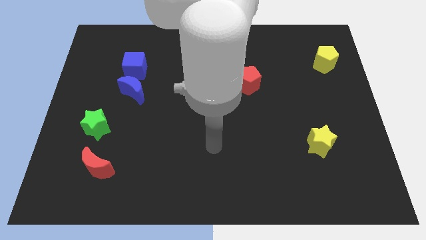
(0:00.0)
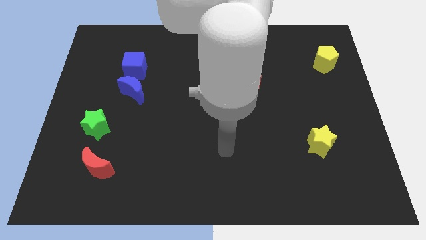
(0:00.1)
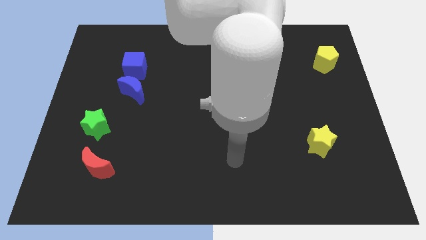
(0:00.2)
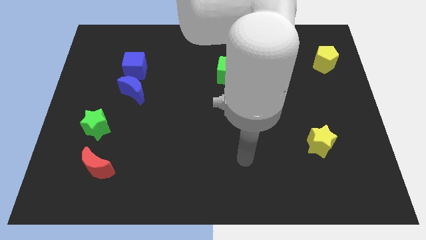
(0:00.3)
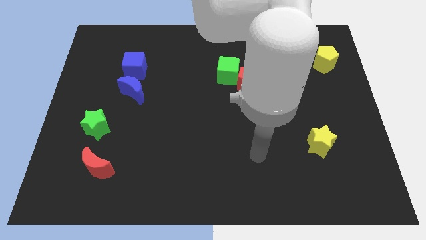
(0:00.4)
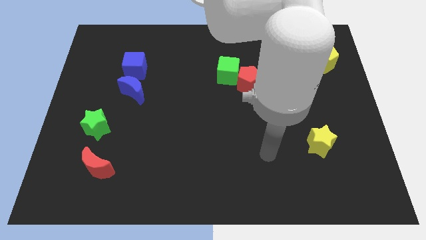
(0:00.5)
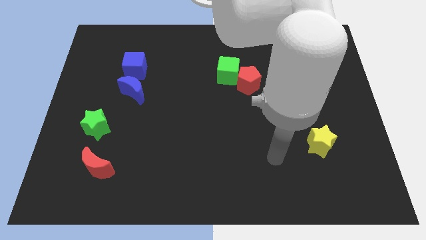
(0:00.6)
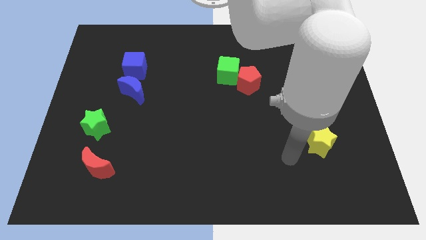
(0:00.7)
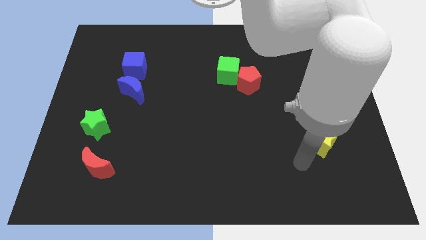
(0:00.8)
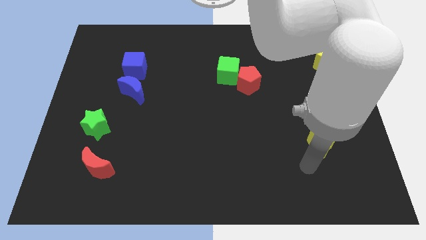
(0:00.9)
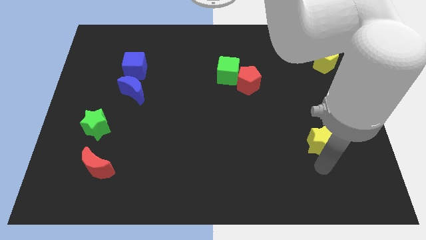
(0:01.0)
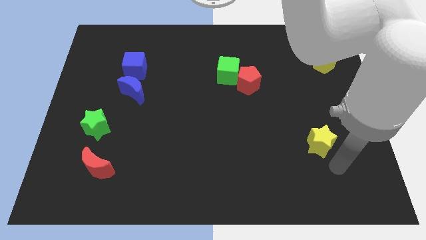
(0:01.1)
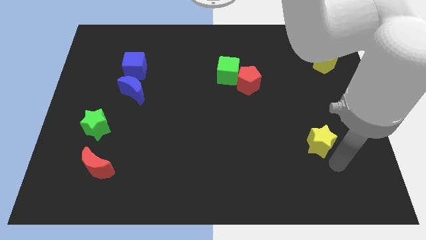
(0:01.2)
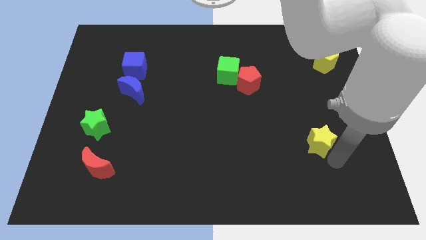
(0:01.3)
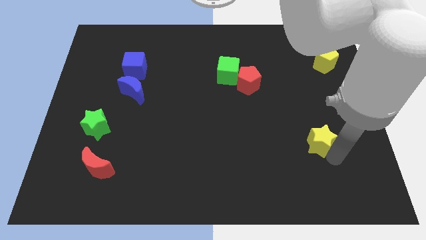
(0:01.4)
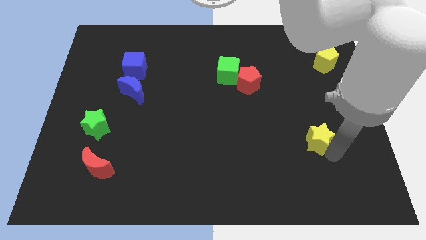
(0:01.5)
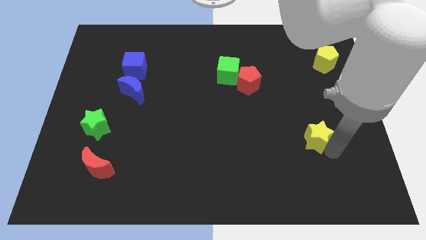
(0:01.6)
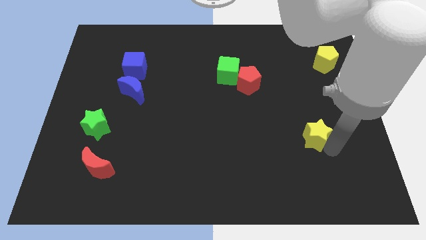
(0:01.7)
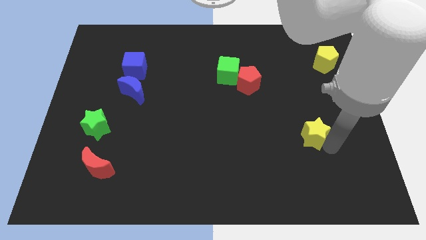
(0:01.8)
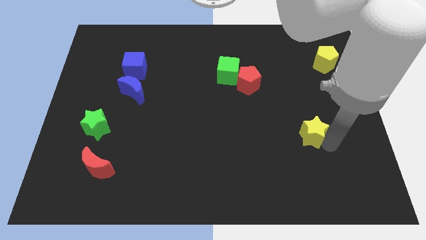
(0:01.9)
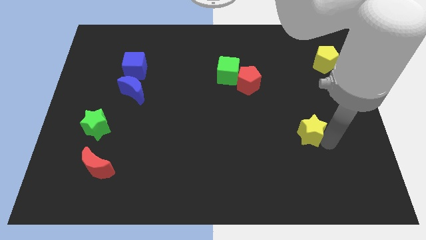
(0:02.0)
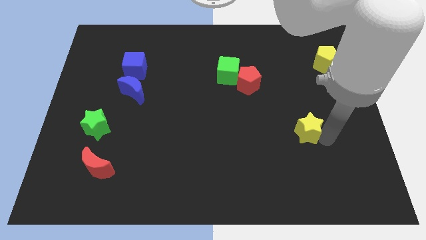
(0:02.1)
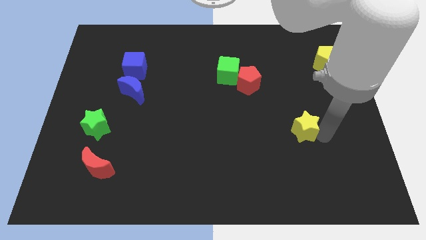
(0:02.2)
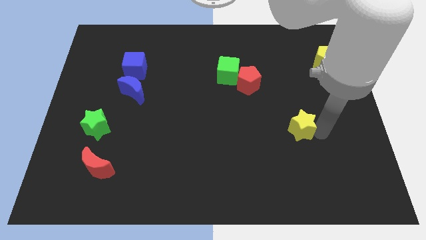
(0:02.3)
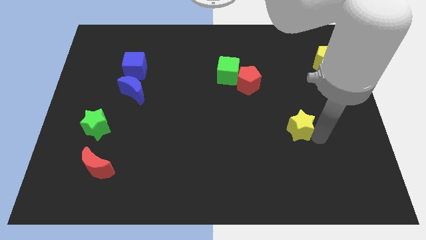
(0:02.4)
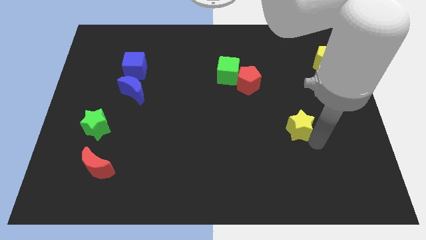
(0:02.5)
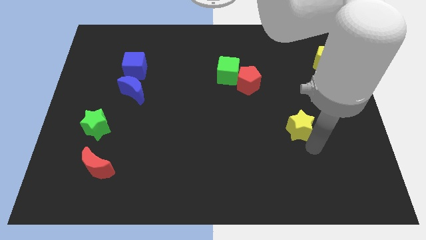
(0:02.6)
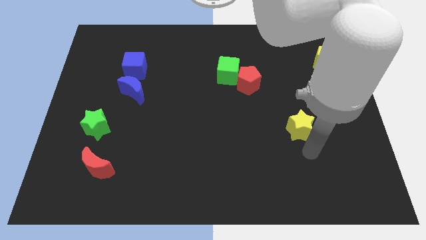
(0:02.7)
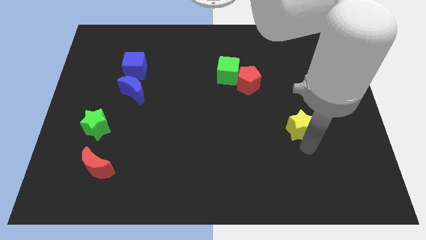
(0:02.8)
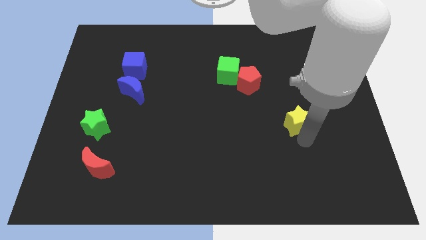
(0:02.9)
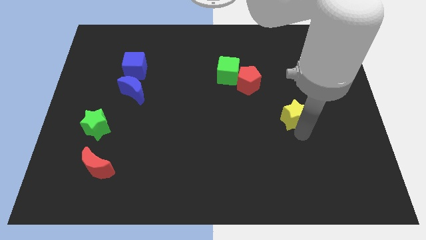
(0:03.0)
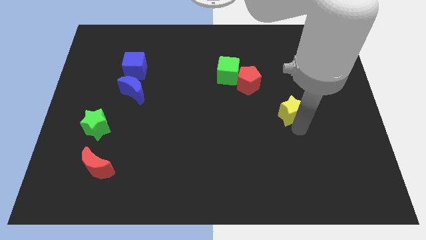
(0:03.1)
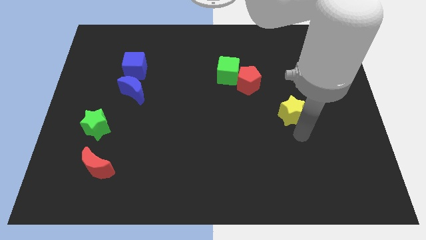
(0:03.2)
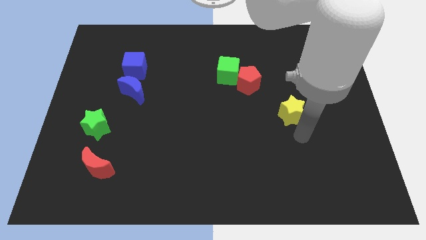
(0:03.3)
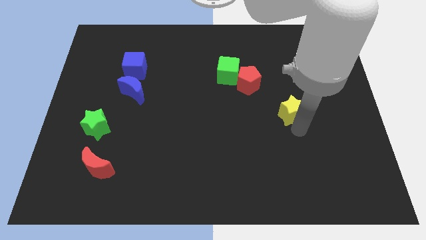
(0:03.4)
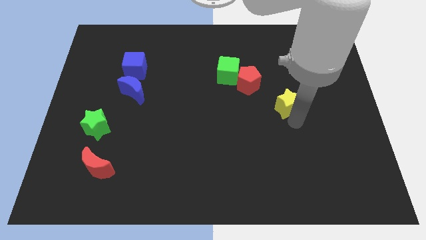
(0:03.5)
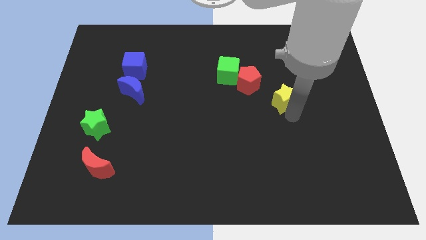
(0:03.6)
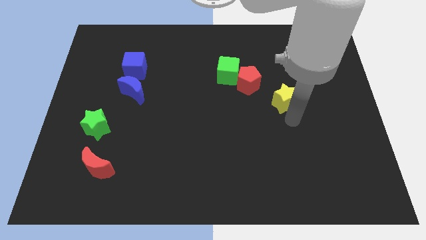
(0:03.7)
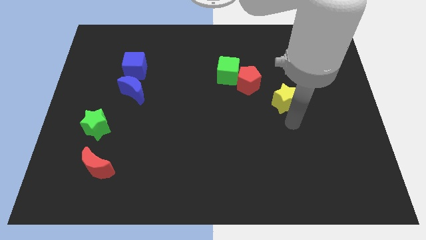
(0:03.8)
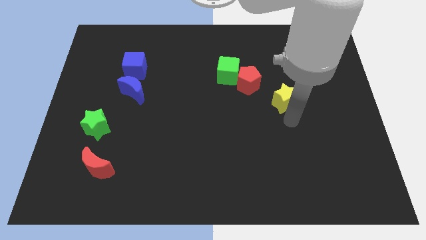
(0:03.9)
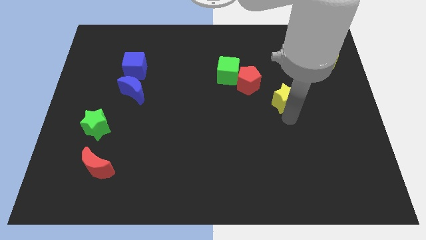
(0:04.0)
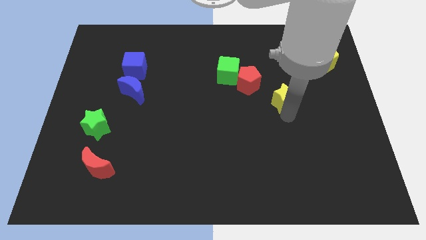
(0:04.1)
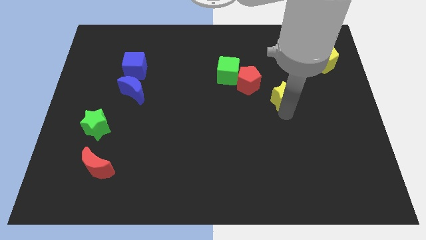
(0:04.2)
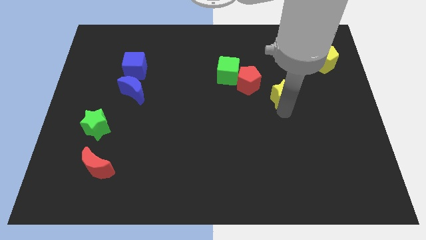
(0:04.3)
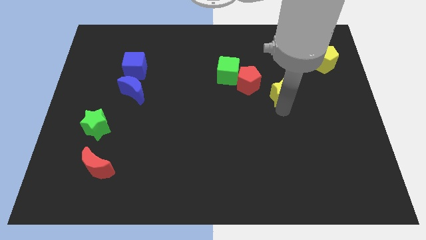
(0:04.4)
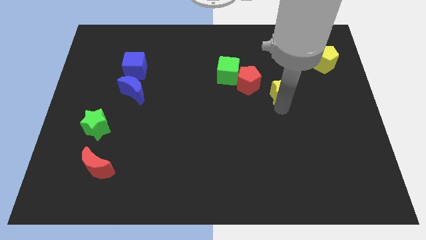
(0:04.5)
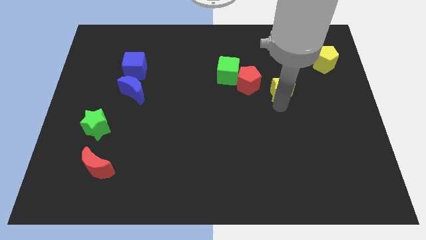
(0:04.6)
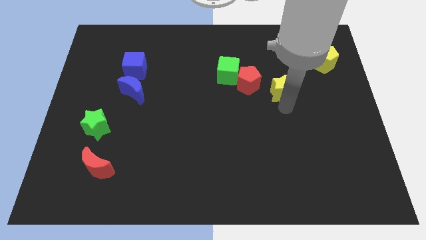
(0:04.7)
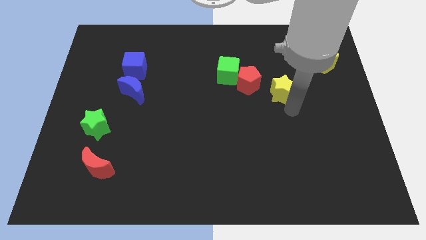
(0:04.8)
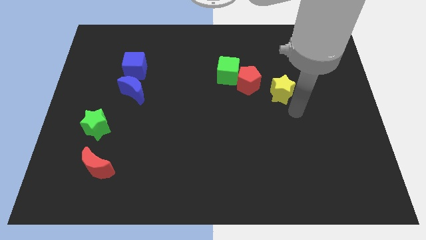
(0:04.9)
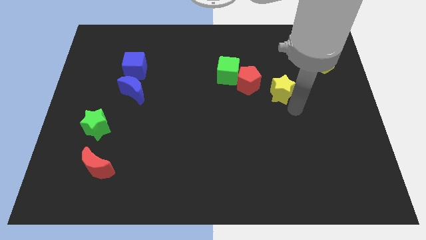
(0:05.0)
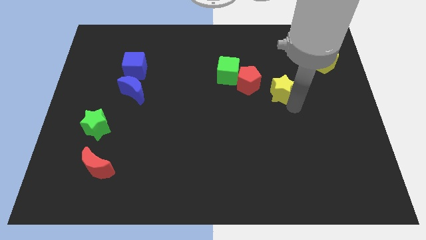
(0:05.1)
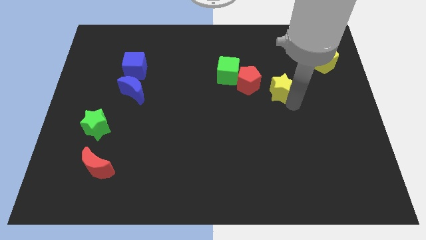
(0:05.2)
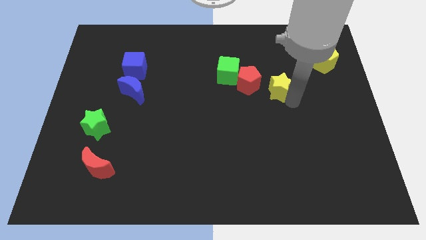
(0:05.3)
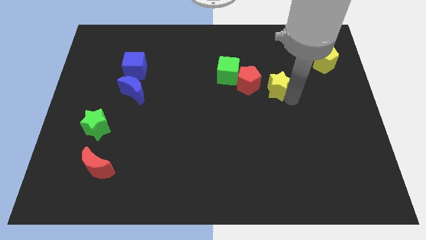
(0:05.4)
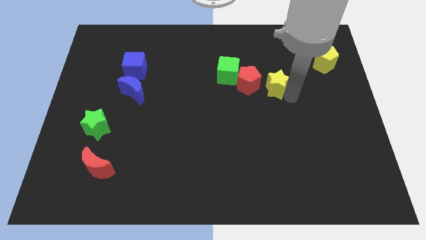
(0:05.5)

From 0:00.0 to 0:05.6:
put the yellow star to the right side of the green cube

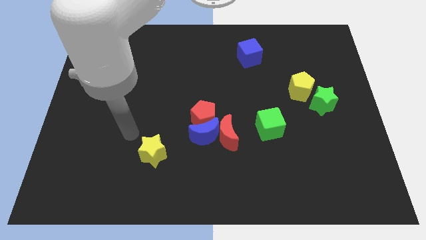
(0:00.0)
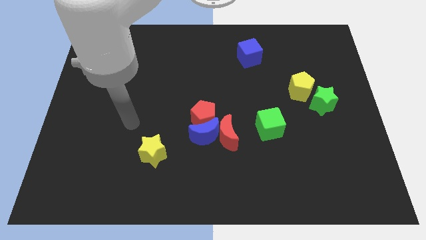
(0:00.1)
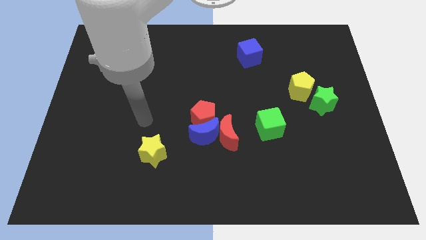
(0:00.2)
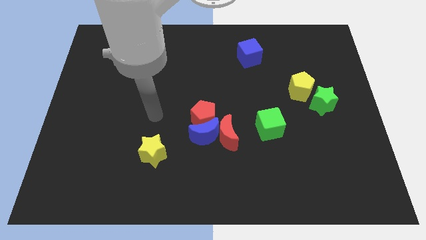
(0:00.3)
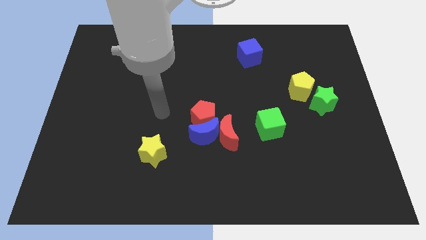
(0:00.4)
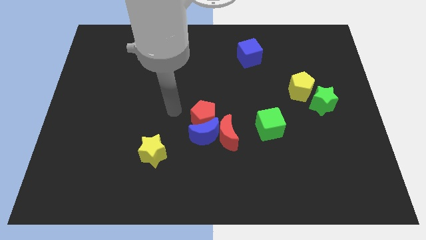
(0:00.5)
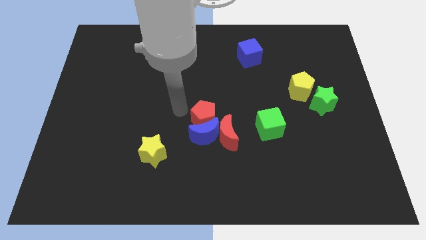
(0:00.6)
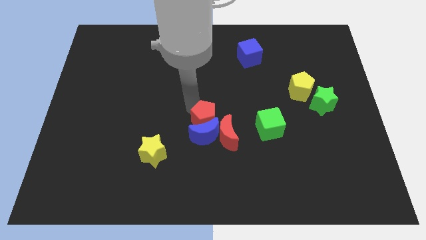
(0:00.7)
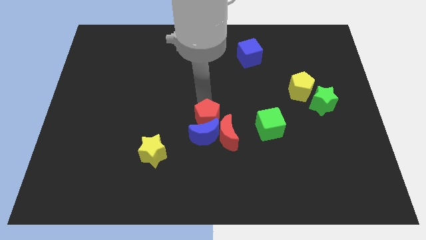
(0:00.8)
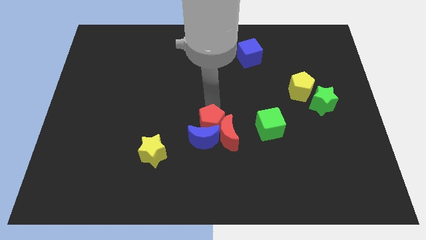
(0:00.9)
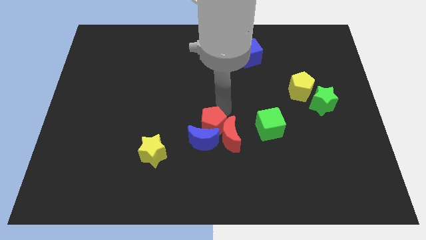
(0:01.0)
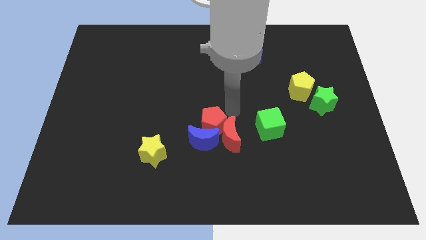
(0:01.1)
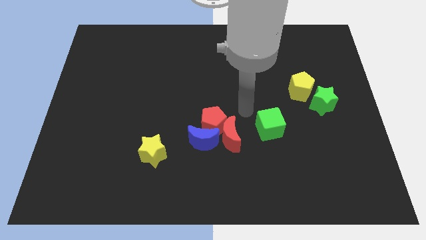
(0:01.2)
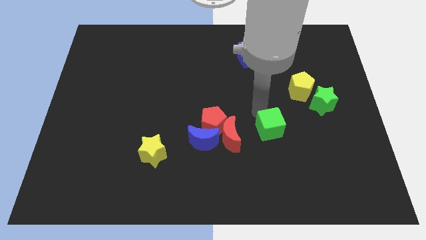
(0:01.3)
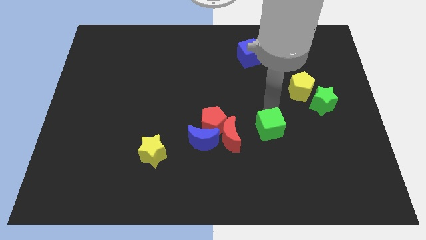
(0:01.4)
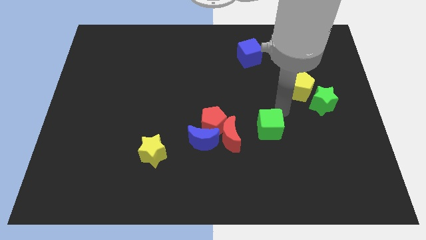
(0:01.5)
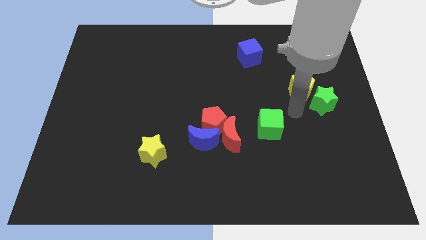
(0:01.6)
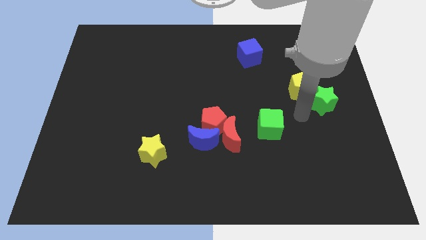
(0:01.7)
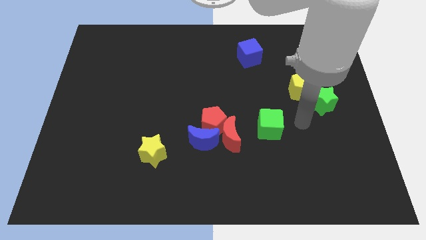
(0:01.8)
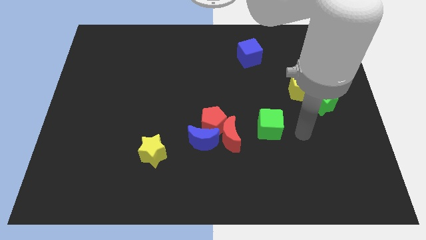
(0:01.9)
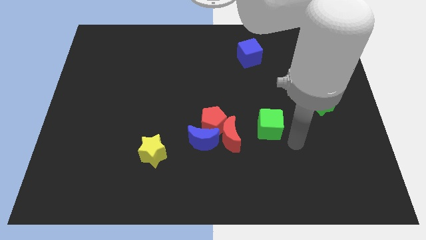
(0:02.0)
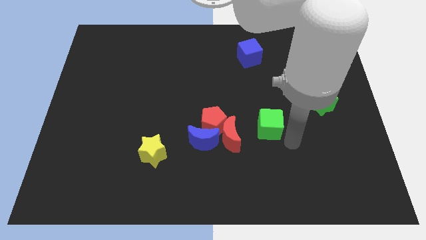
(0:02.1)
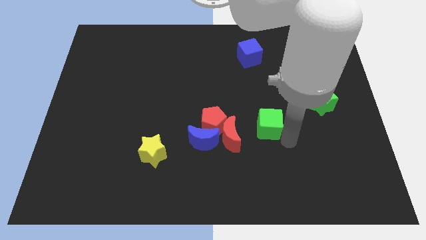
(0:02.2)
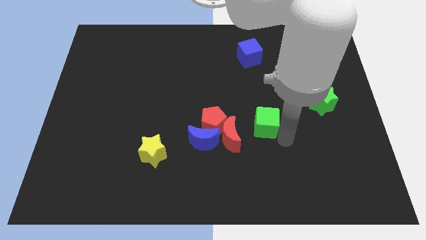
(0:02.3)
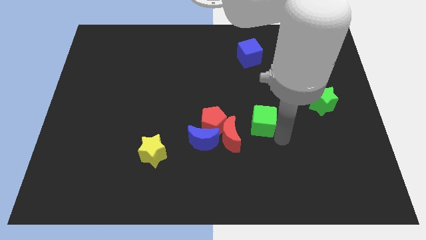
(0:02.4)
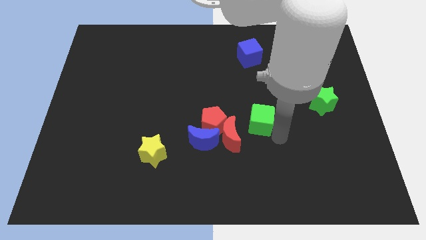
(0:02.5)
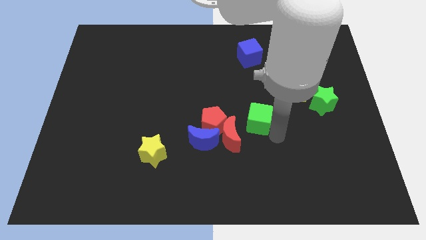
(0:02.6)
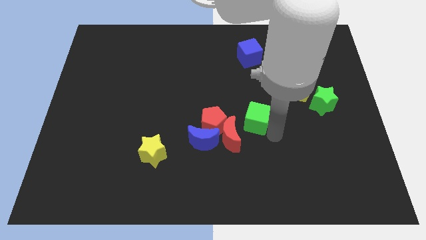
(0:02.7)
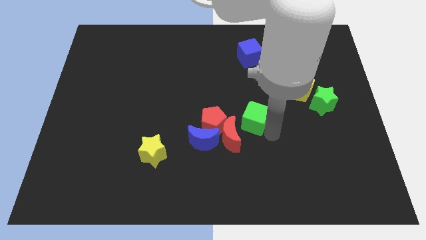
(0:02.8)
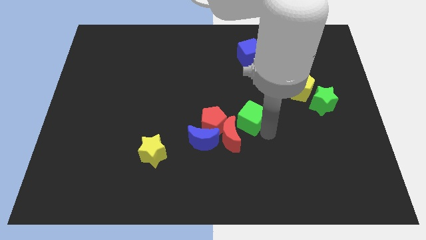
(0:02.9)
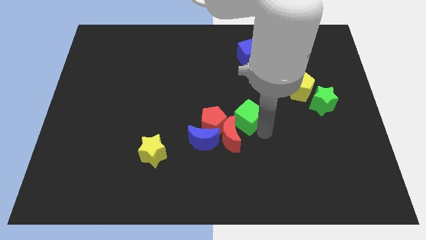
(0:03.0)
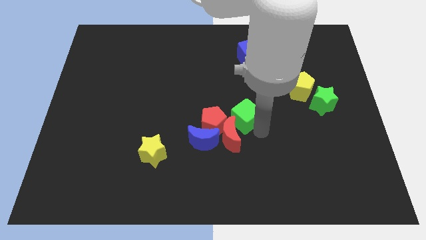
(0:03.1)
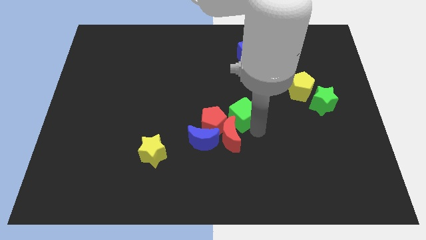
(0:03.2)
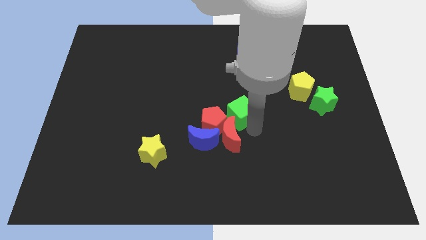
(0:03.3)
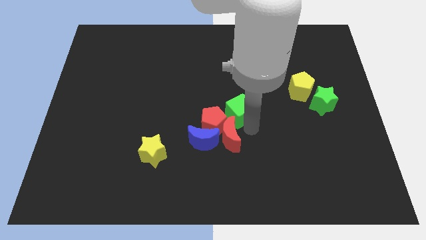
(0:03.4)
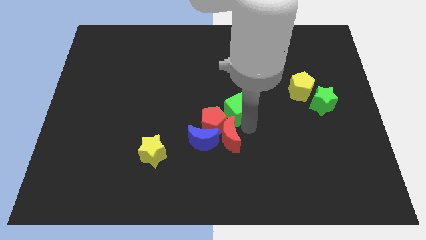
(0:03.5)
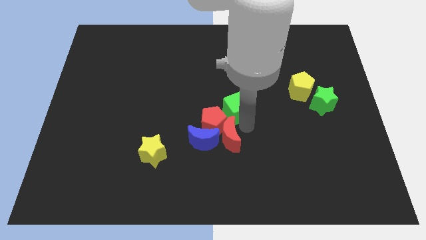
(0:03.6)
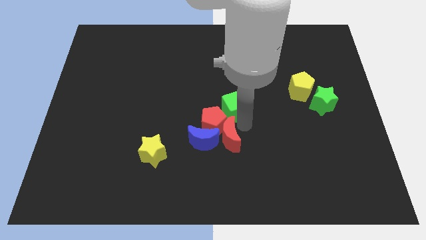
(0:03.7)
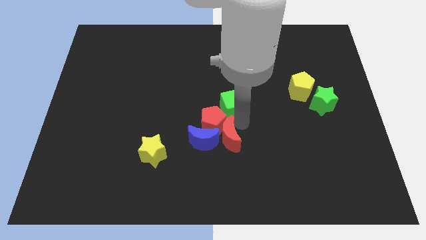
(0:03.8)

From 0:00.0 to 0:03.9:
move the green cube to the top side of the red pentagon
